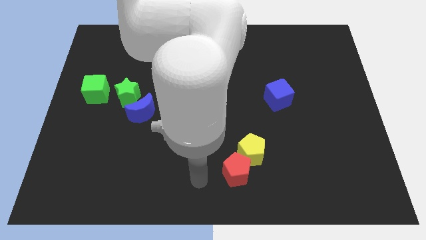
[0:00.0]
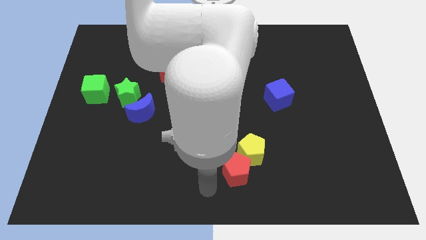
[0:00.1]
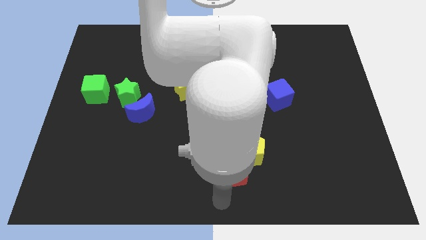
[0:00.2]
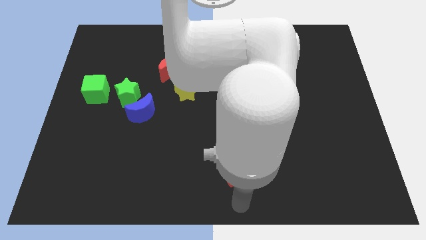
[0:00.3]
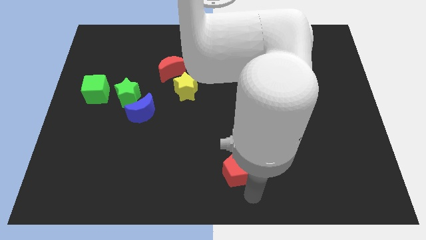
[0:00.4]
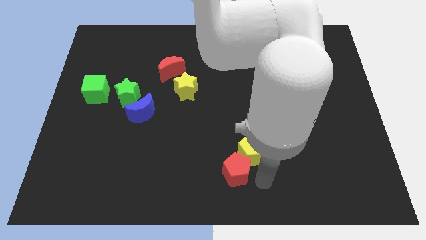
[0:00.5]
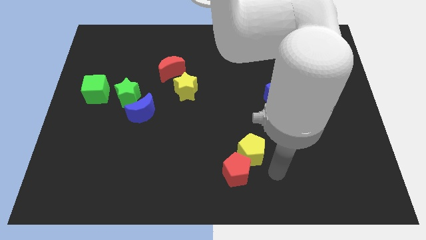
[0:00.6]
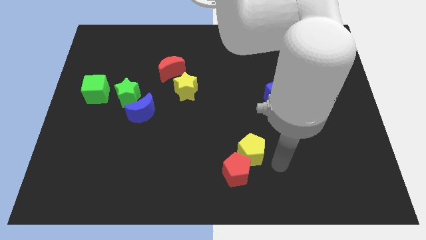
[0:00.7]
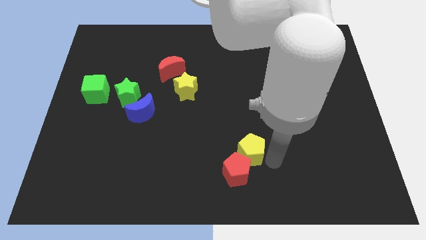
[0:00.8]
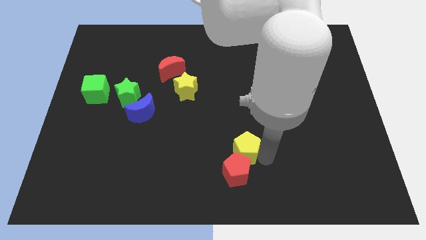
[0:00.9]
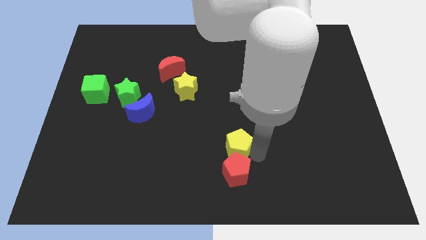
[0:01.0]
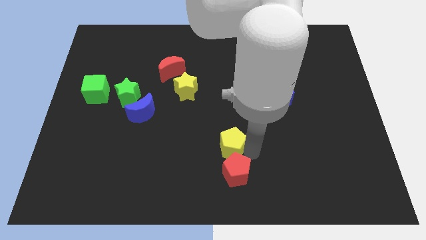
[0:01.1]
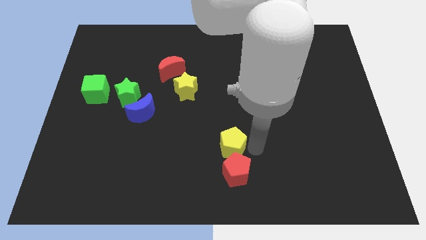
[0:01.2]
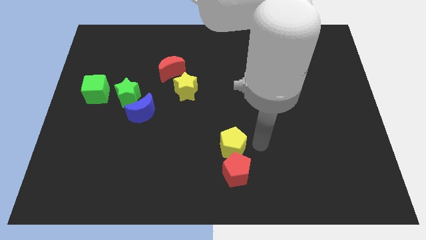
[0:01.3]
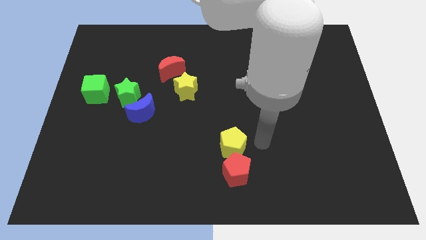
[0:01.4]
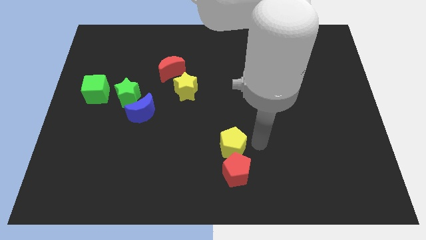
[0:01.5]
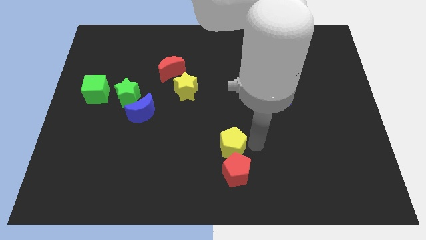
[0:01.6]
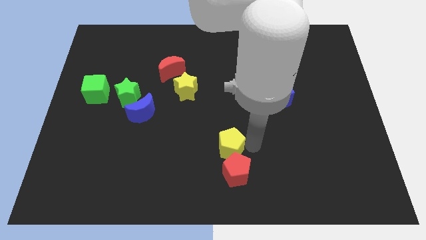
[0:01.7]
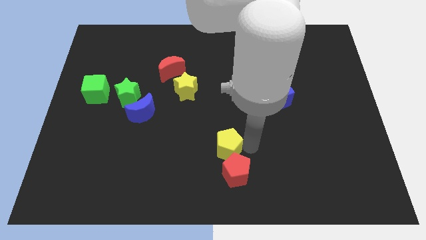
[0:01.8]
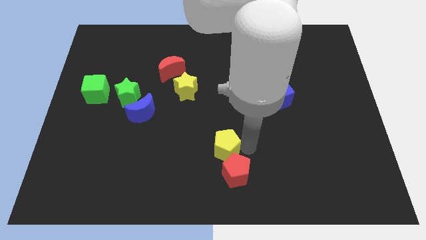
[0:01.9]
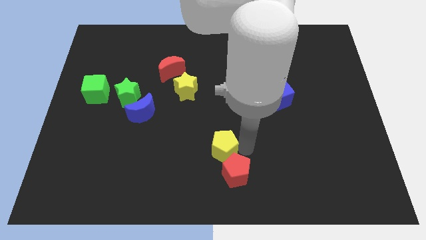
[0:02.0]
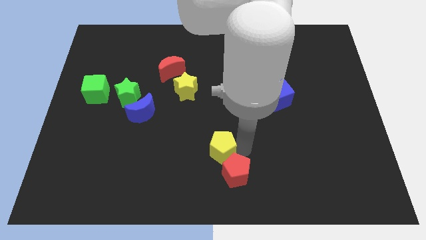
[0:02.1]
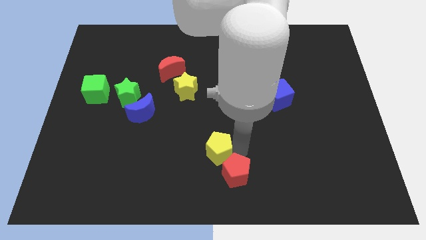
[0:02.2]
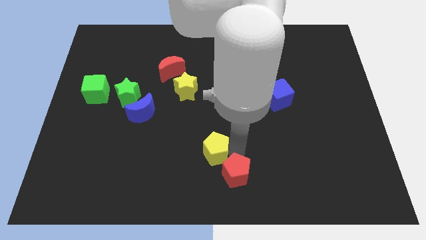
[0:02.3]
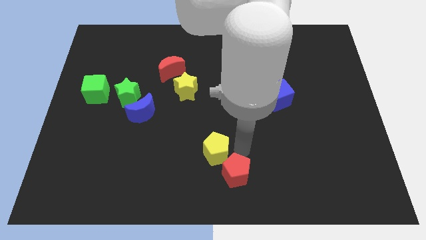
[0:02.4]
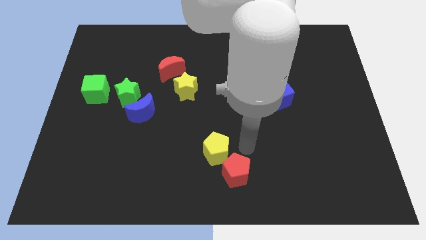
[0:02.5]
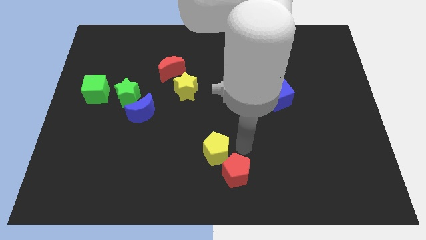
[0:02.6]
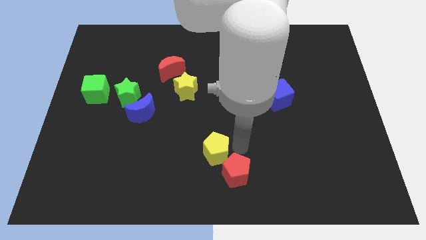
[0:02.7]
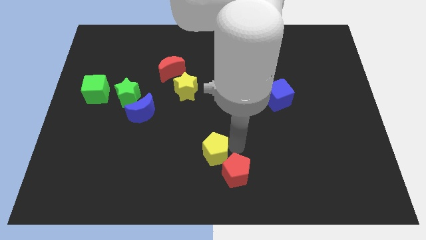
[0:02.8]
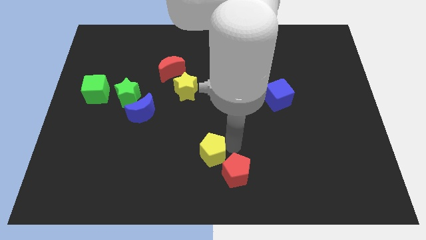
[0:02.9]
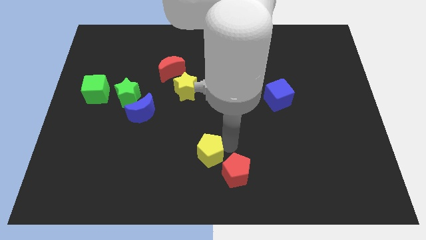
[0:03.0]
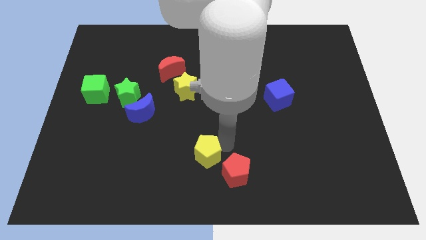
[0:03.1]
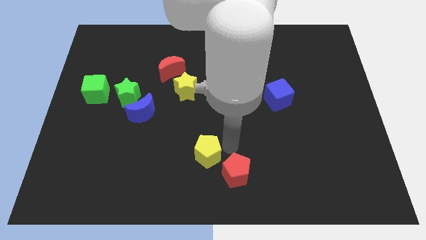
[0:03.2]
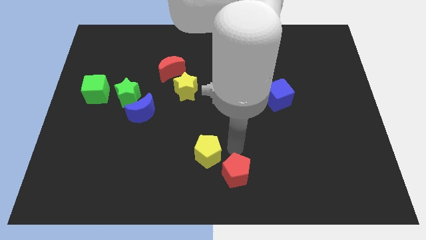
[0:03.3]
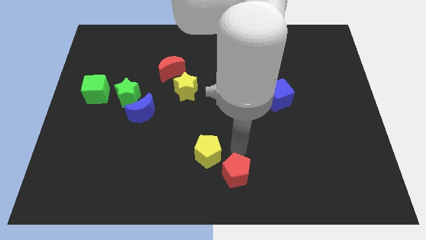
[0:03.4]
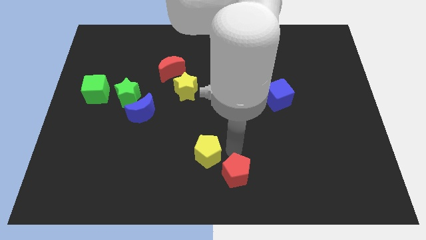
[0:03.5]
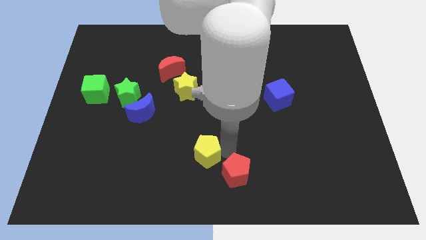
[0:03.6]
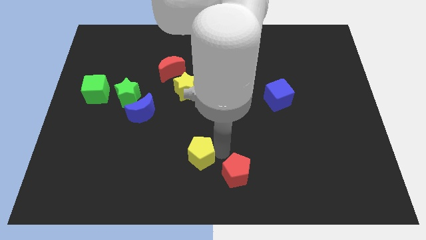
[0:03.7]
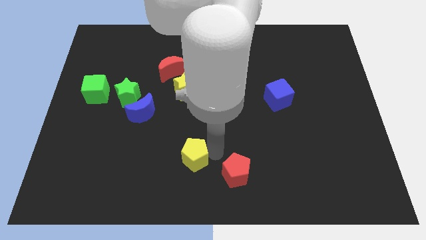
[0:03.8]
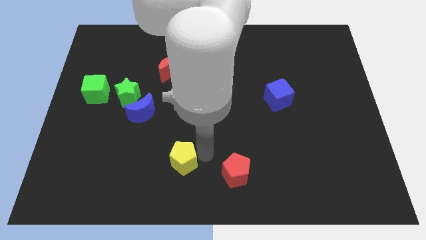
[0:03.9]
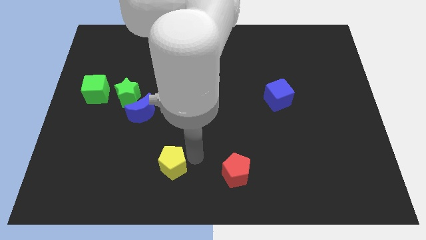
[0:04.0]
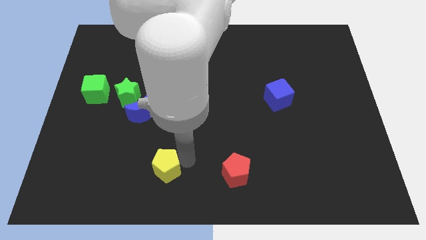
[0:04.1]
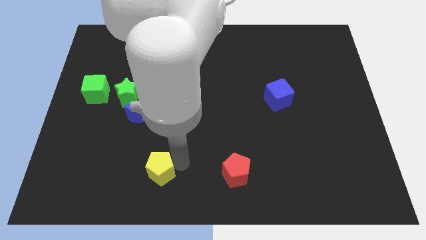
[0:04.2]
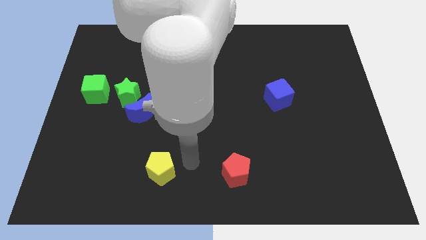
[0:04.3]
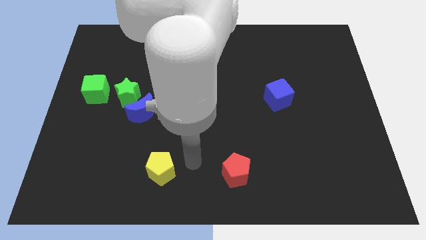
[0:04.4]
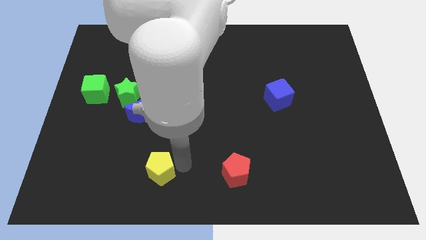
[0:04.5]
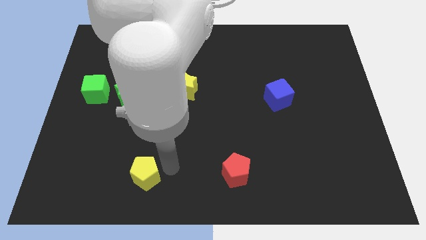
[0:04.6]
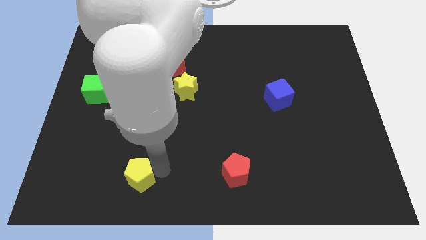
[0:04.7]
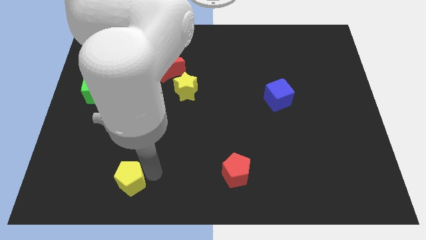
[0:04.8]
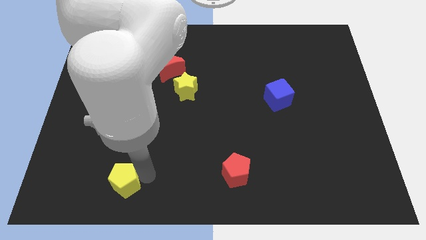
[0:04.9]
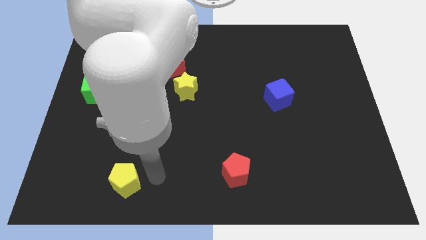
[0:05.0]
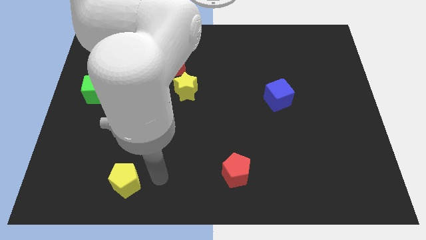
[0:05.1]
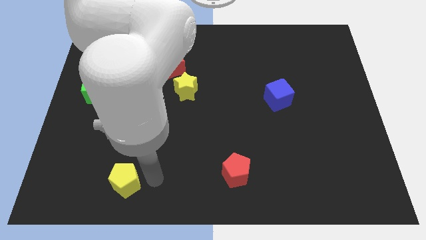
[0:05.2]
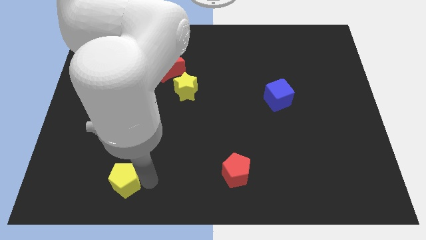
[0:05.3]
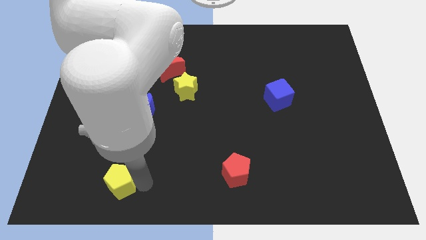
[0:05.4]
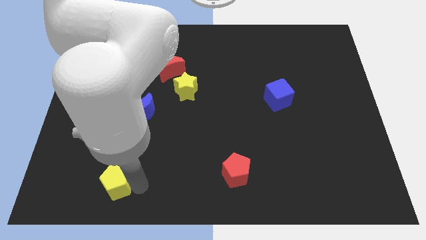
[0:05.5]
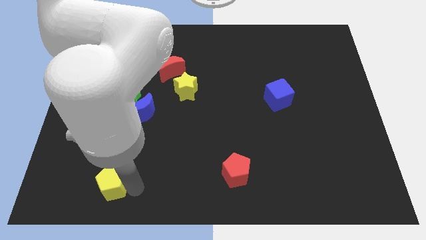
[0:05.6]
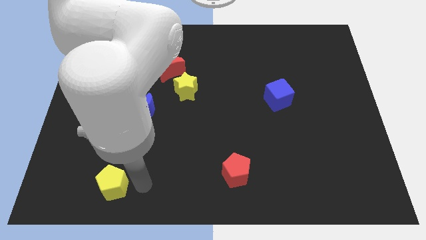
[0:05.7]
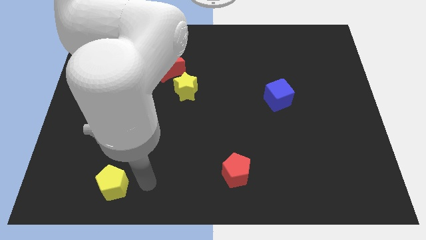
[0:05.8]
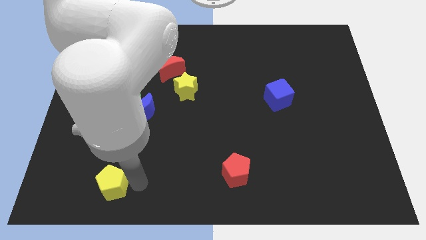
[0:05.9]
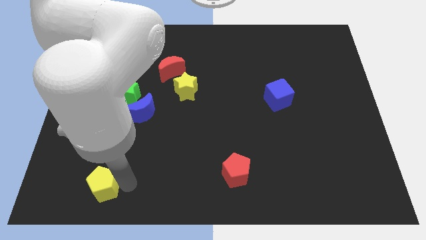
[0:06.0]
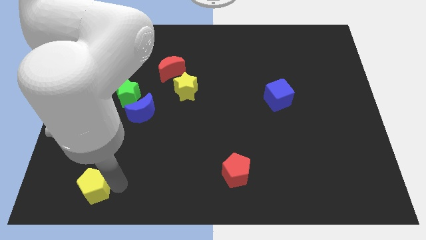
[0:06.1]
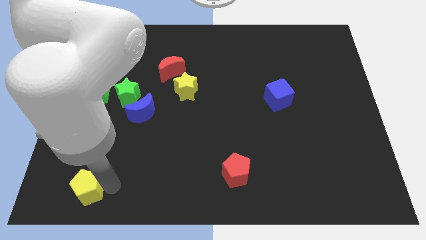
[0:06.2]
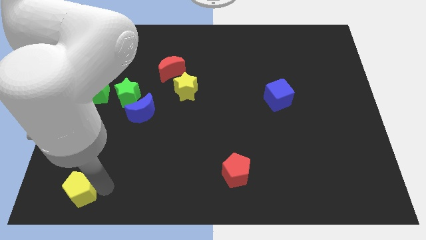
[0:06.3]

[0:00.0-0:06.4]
put the yellow pentagon to the bottom left corner

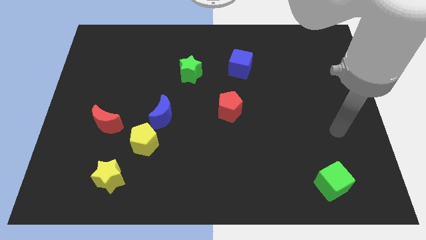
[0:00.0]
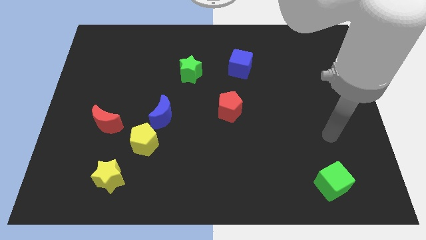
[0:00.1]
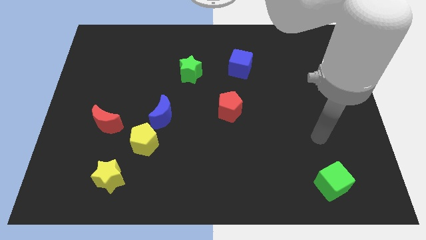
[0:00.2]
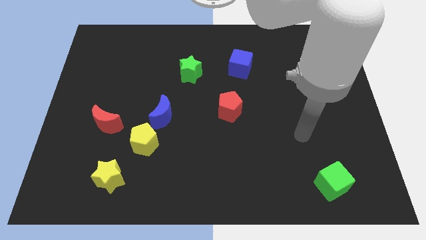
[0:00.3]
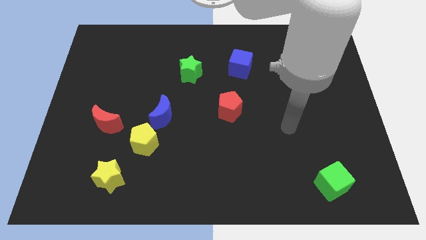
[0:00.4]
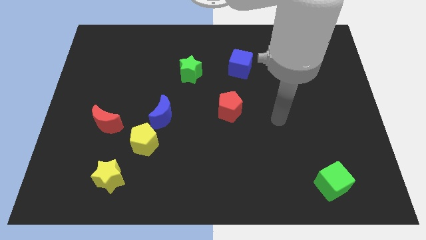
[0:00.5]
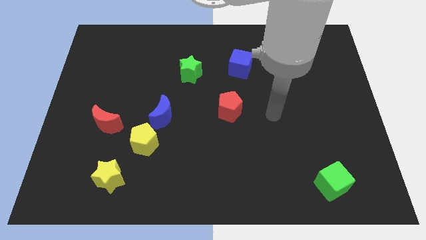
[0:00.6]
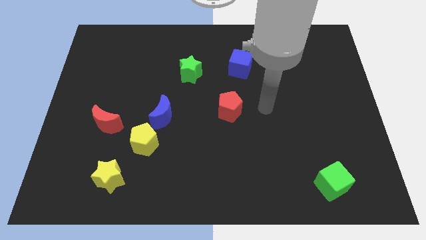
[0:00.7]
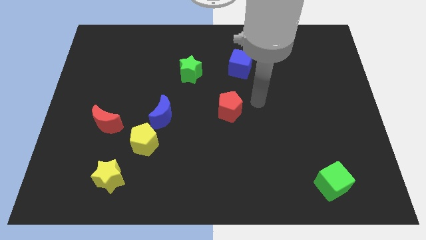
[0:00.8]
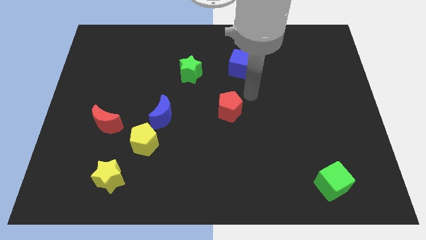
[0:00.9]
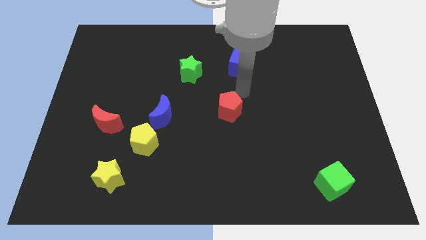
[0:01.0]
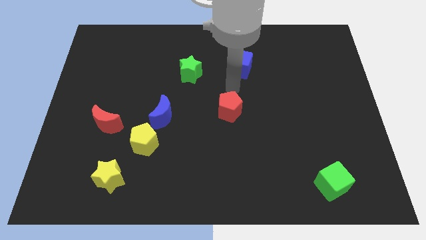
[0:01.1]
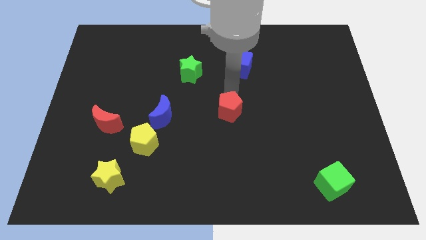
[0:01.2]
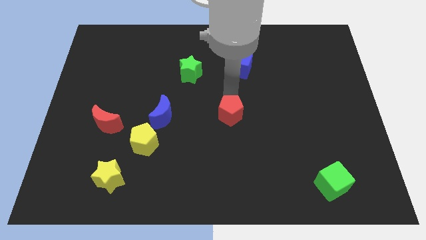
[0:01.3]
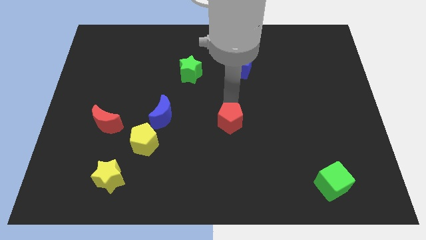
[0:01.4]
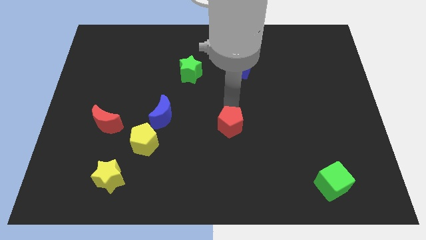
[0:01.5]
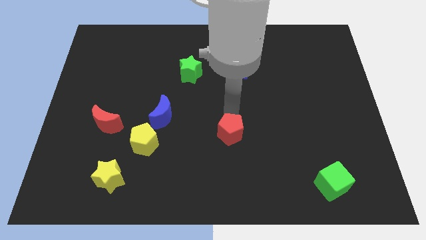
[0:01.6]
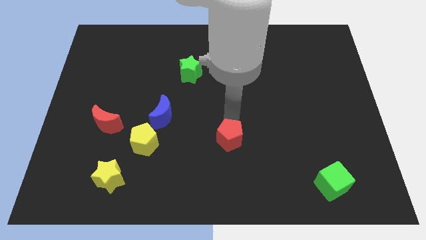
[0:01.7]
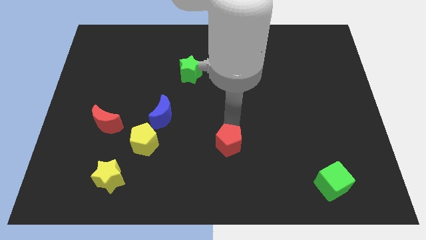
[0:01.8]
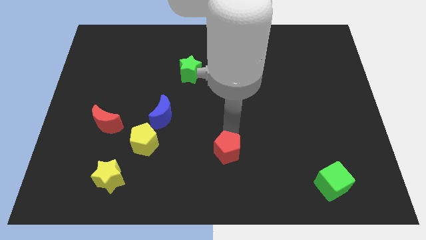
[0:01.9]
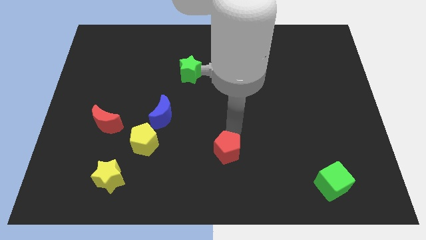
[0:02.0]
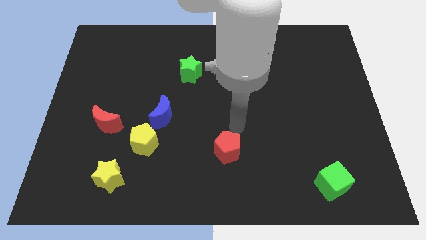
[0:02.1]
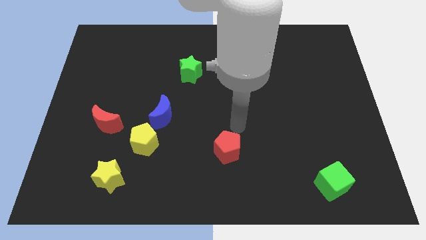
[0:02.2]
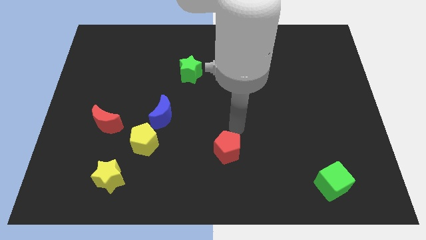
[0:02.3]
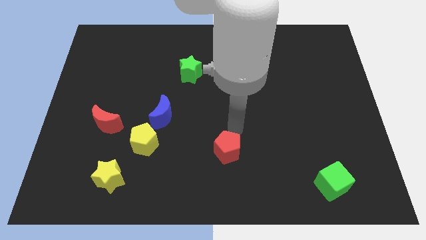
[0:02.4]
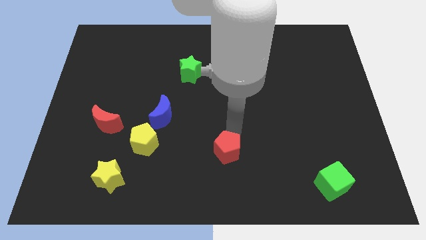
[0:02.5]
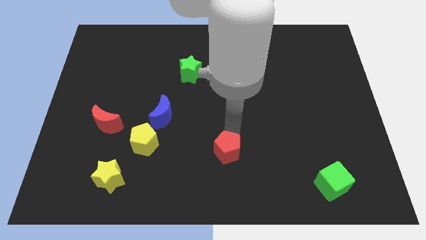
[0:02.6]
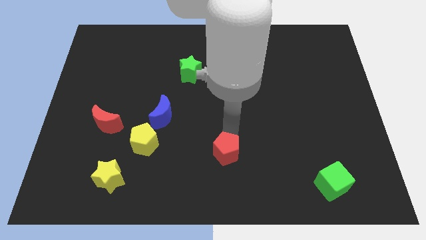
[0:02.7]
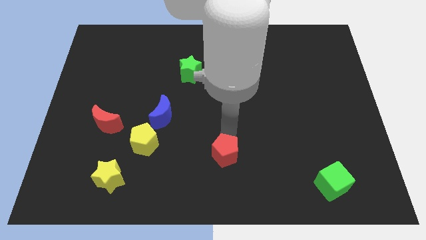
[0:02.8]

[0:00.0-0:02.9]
put the red pentagon to the bottom side
